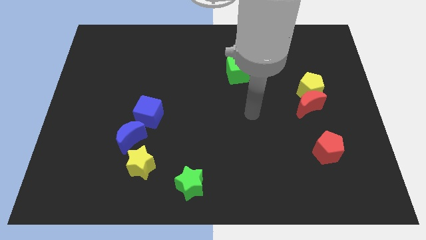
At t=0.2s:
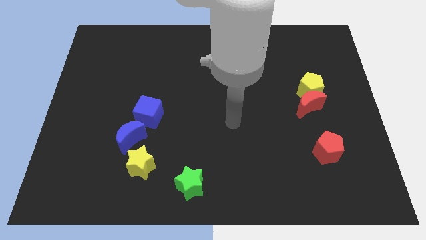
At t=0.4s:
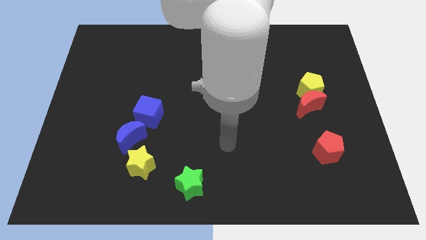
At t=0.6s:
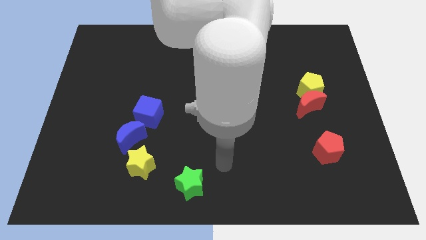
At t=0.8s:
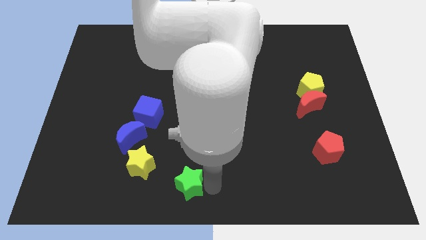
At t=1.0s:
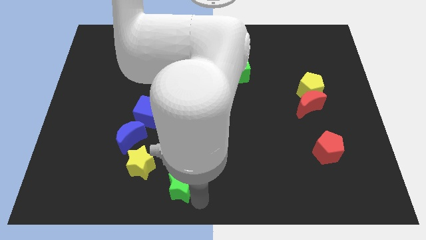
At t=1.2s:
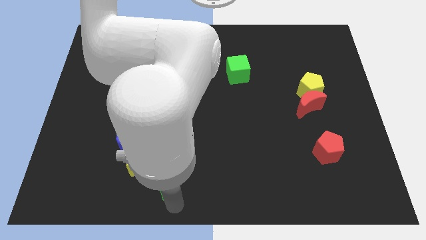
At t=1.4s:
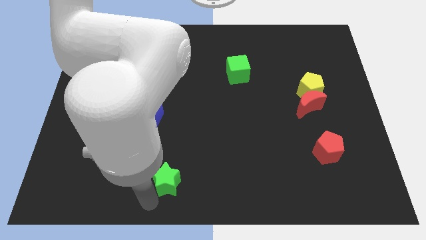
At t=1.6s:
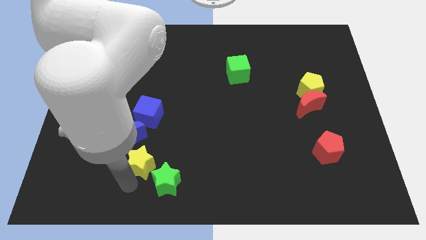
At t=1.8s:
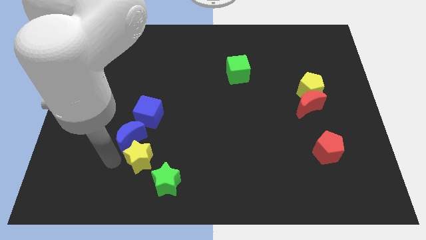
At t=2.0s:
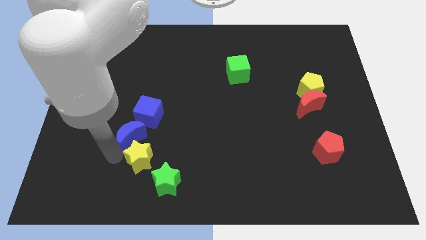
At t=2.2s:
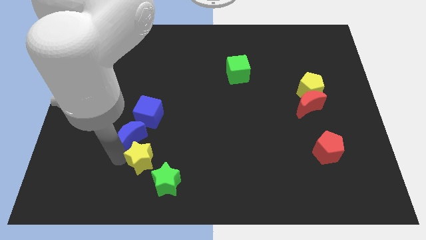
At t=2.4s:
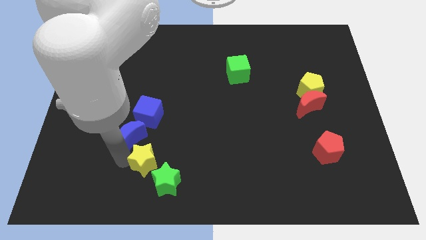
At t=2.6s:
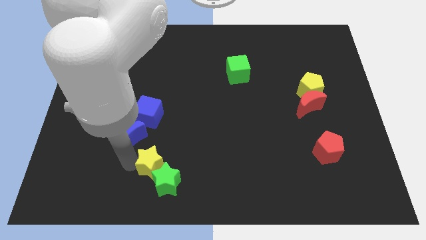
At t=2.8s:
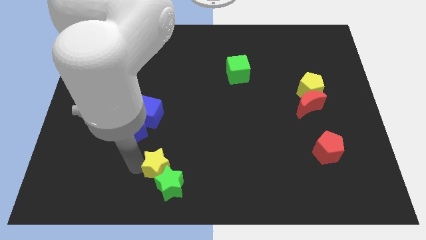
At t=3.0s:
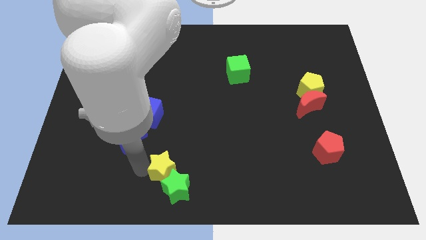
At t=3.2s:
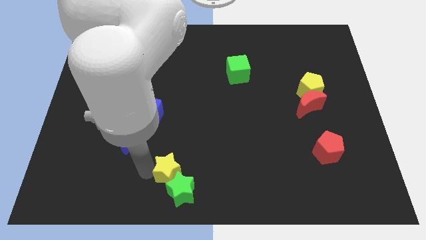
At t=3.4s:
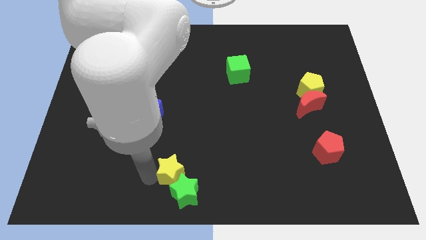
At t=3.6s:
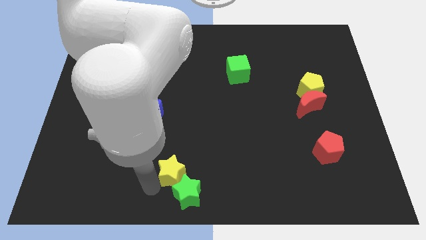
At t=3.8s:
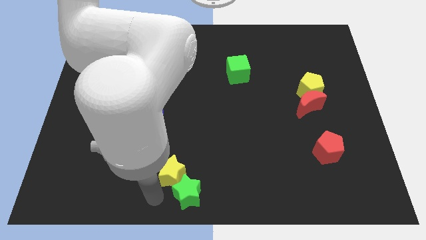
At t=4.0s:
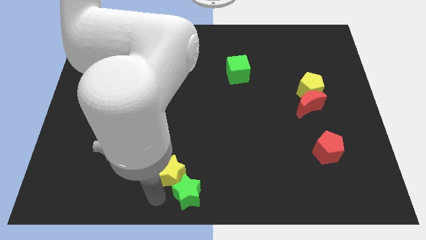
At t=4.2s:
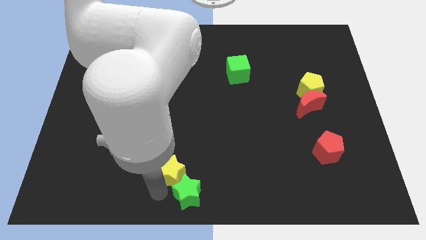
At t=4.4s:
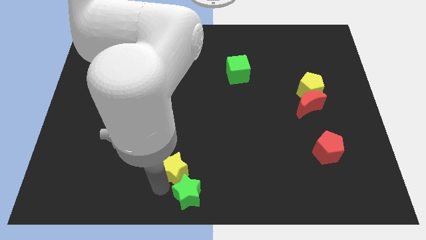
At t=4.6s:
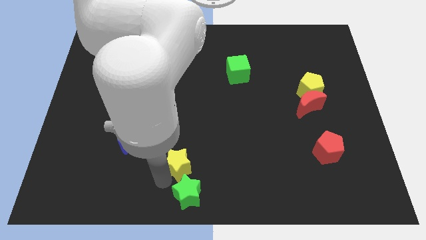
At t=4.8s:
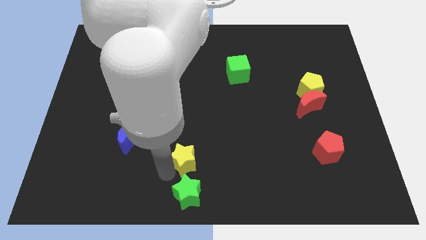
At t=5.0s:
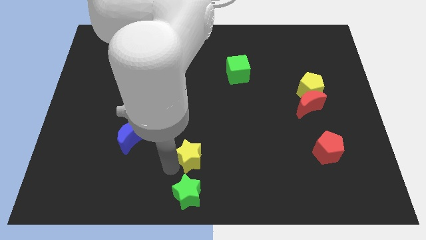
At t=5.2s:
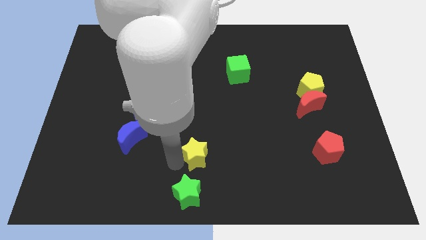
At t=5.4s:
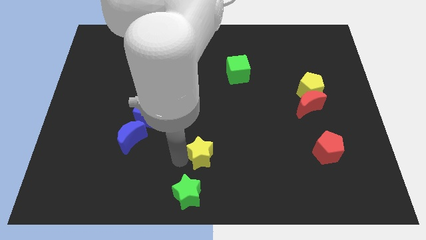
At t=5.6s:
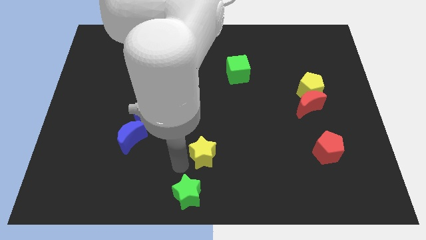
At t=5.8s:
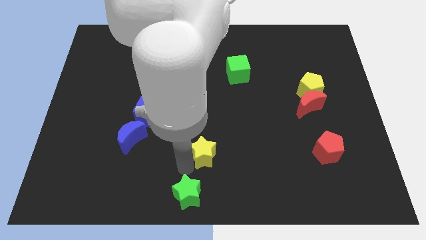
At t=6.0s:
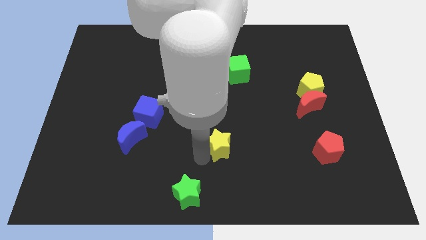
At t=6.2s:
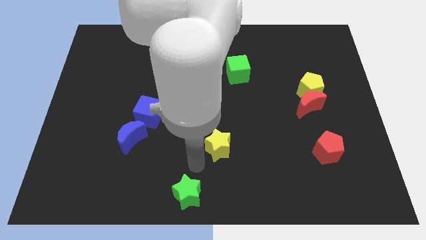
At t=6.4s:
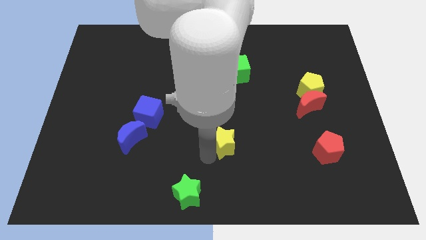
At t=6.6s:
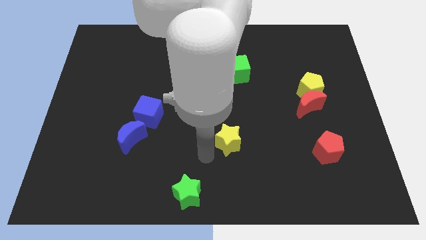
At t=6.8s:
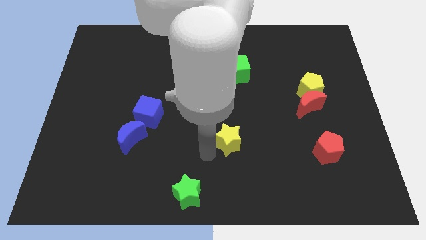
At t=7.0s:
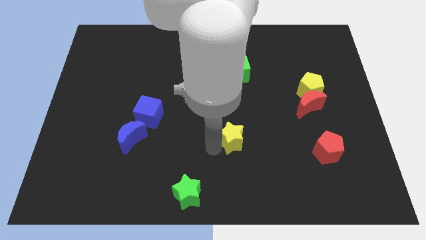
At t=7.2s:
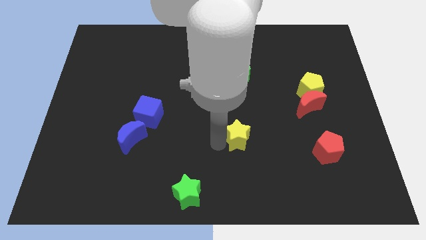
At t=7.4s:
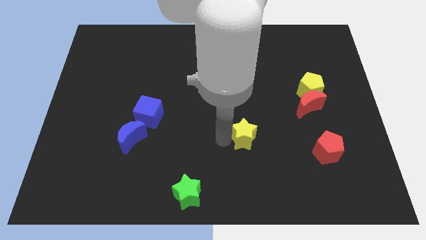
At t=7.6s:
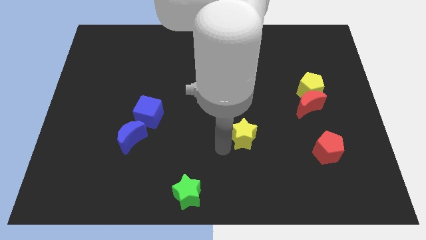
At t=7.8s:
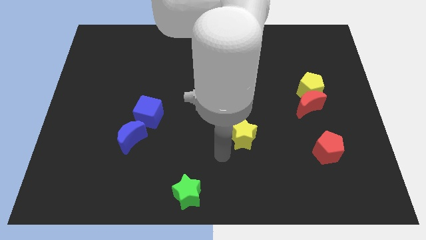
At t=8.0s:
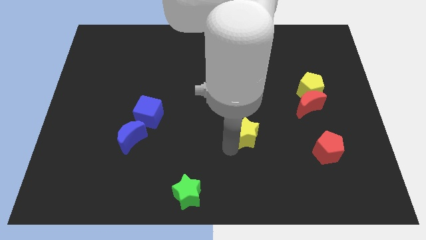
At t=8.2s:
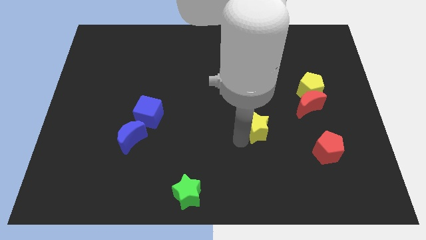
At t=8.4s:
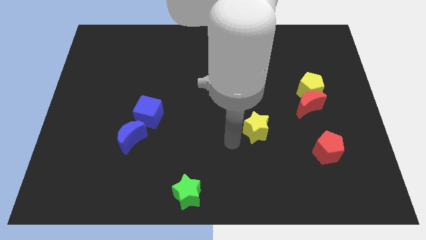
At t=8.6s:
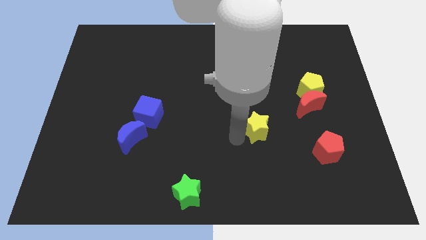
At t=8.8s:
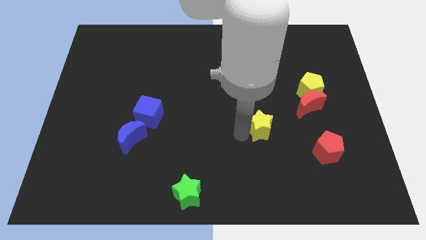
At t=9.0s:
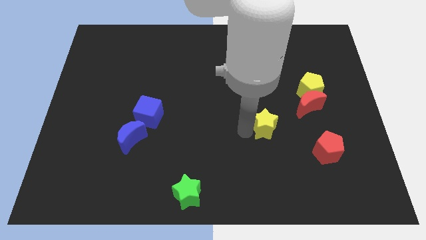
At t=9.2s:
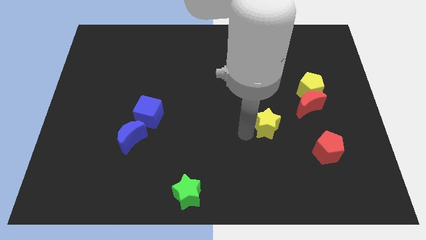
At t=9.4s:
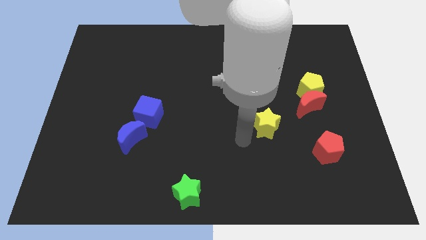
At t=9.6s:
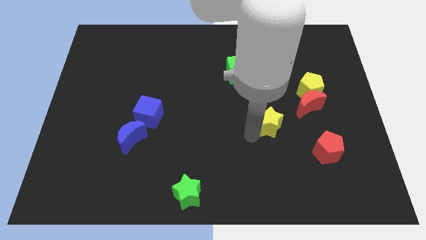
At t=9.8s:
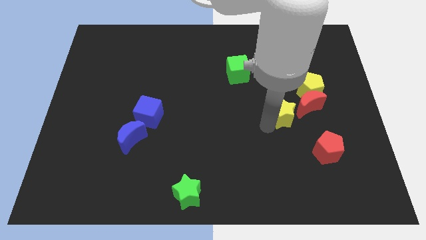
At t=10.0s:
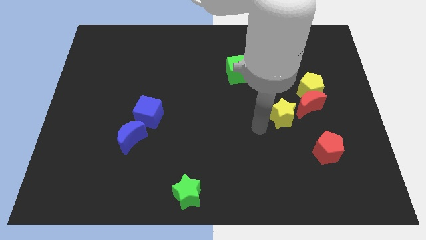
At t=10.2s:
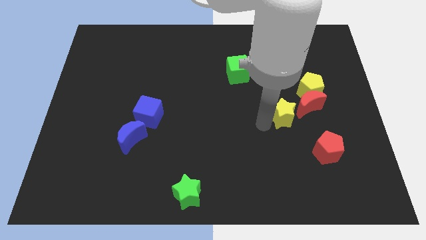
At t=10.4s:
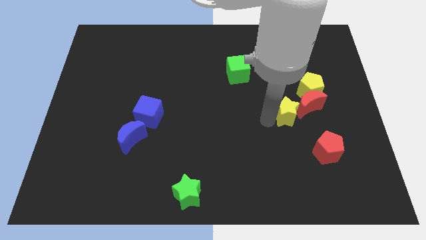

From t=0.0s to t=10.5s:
put the yellow star next to the red moon

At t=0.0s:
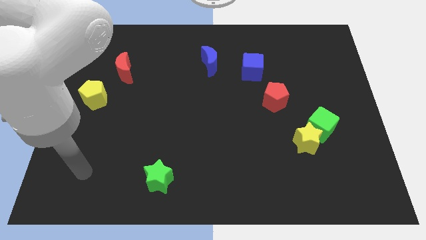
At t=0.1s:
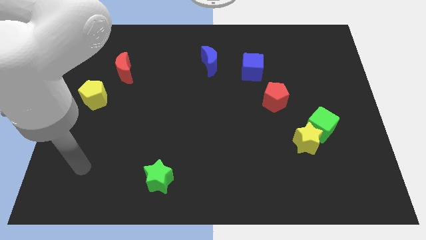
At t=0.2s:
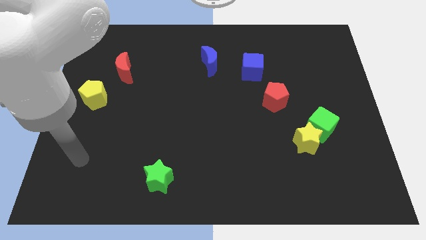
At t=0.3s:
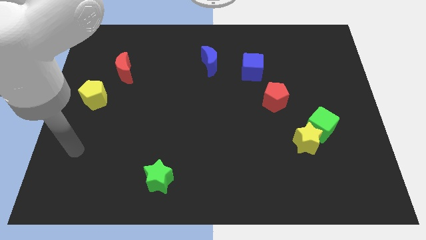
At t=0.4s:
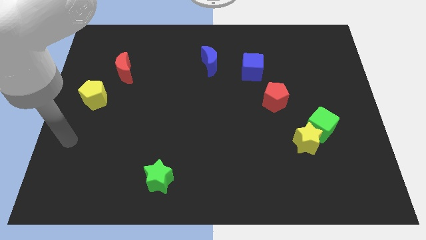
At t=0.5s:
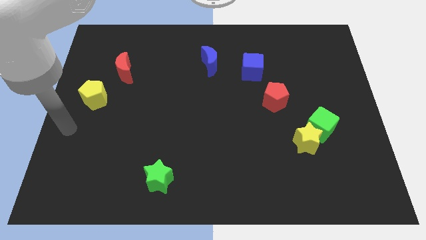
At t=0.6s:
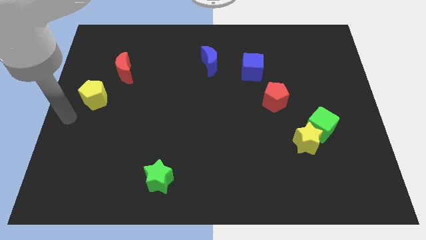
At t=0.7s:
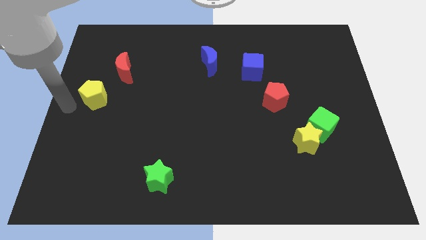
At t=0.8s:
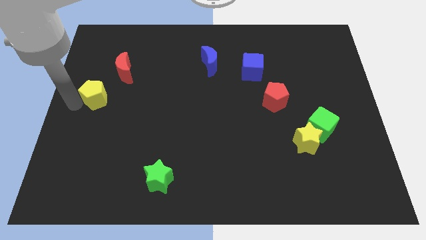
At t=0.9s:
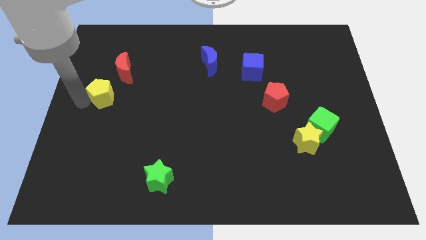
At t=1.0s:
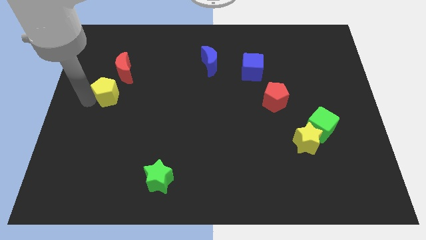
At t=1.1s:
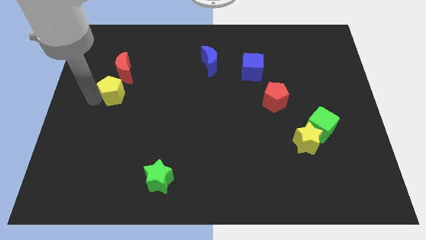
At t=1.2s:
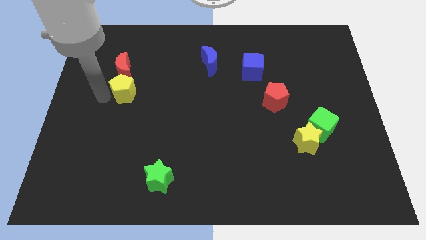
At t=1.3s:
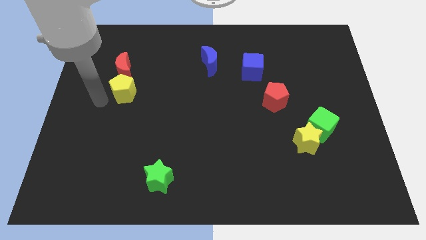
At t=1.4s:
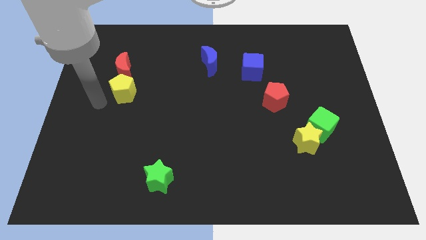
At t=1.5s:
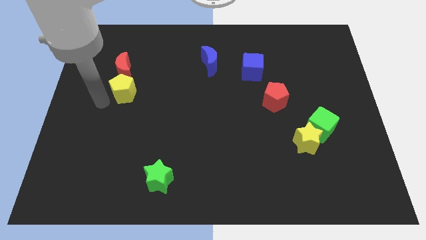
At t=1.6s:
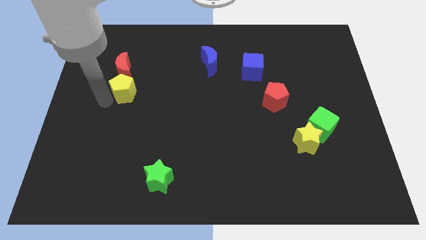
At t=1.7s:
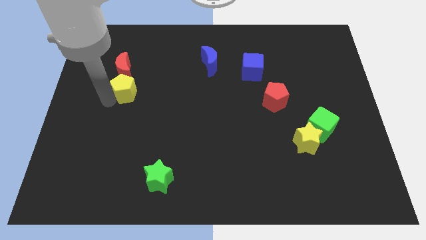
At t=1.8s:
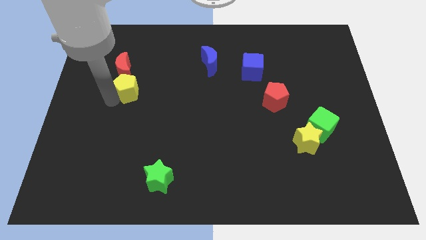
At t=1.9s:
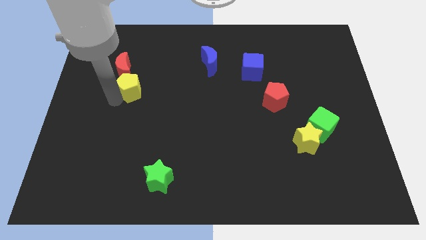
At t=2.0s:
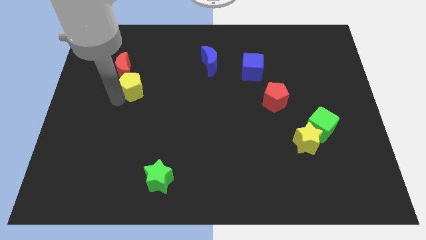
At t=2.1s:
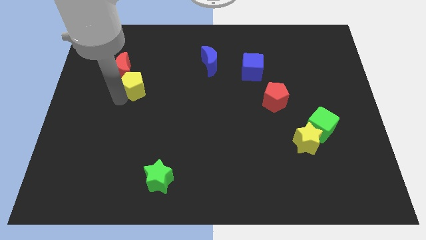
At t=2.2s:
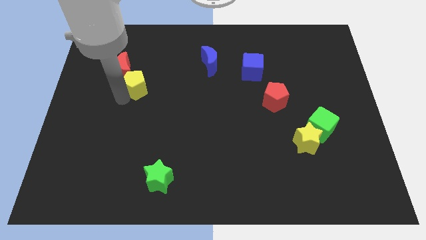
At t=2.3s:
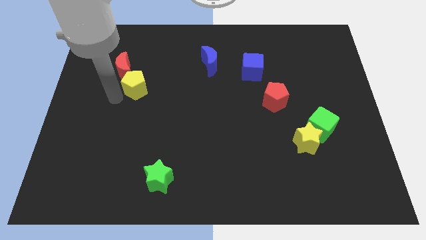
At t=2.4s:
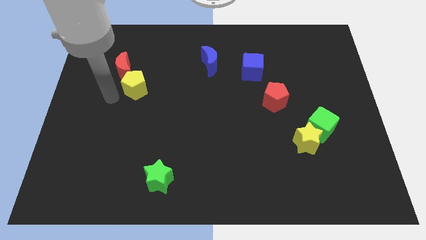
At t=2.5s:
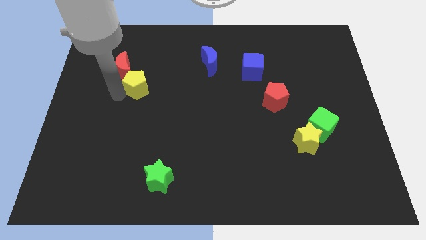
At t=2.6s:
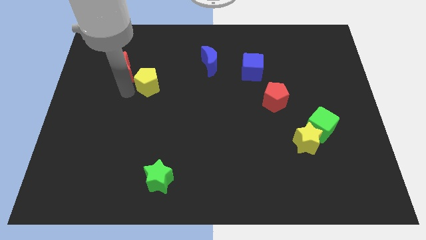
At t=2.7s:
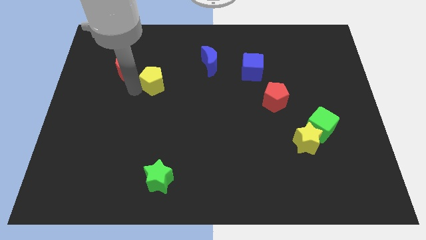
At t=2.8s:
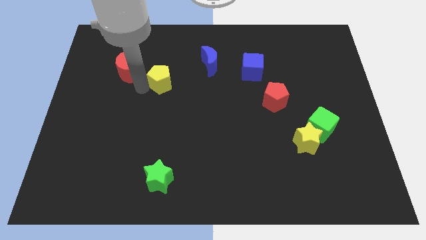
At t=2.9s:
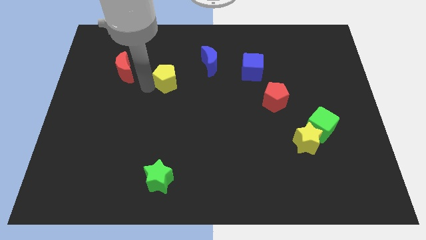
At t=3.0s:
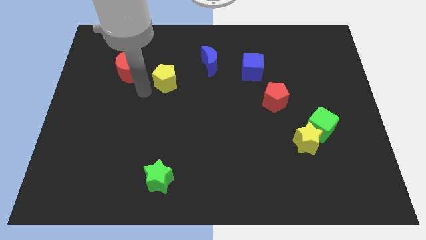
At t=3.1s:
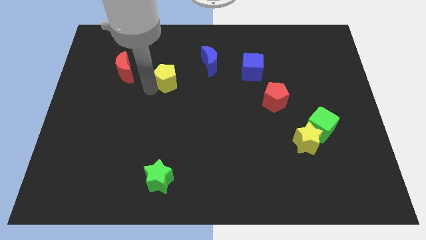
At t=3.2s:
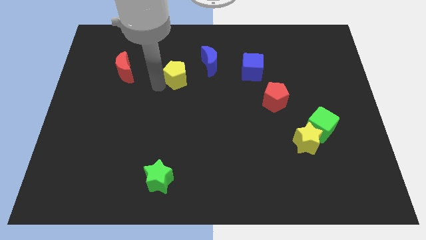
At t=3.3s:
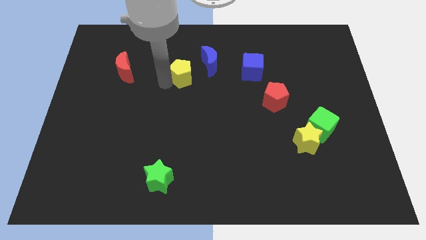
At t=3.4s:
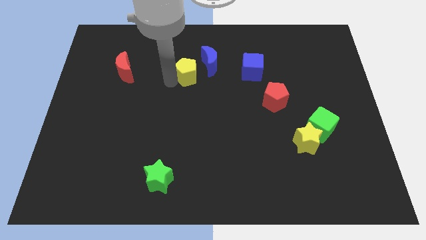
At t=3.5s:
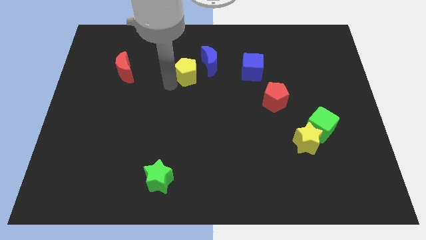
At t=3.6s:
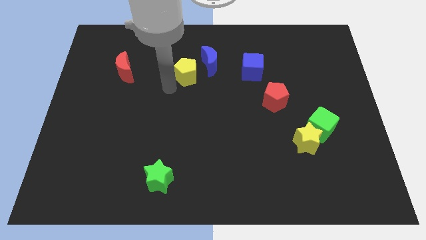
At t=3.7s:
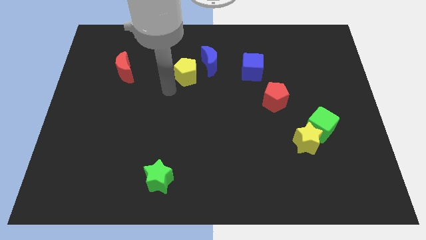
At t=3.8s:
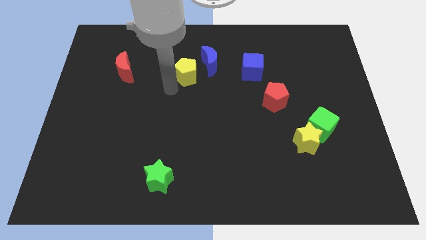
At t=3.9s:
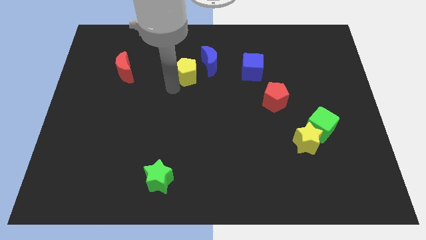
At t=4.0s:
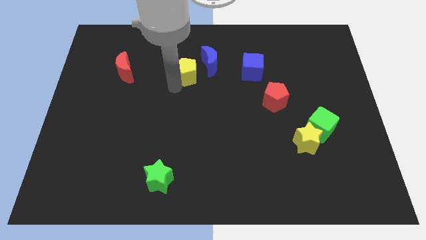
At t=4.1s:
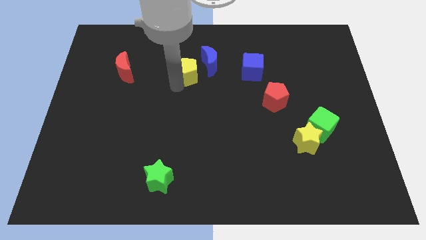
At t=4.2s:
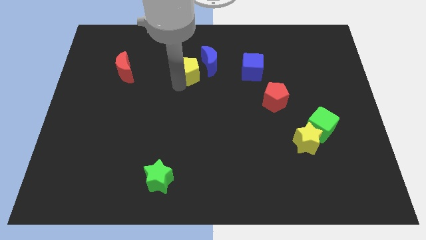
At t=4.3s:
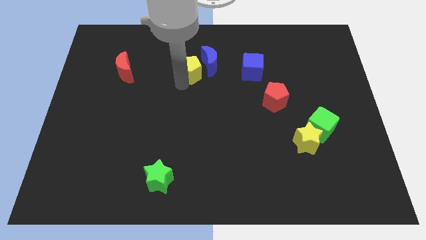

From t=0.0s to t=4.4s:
slide the yellow pentagon next to the blue moon
